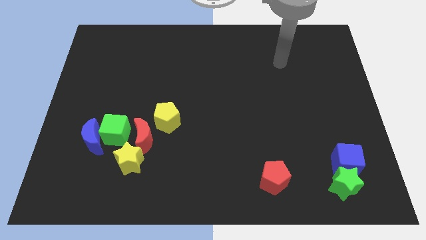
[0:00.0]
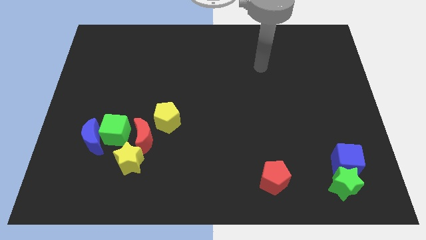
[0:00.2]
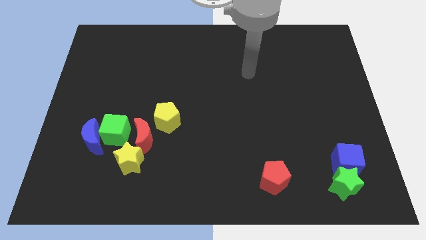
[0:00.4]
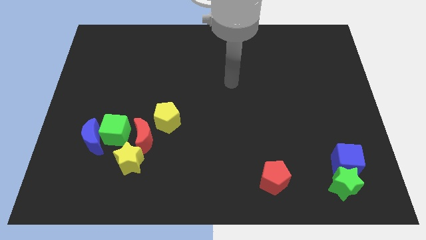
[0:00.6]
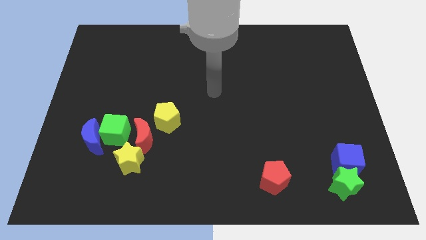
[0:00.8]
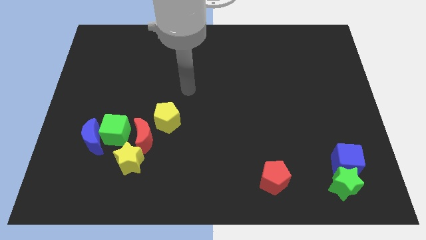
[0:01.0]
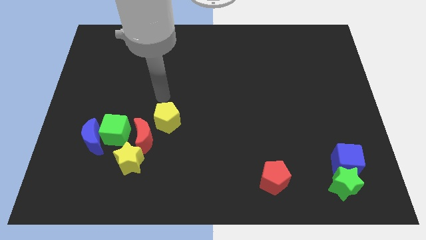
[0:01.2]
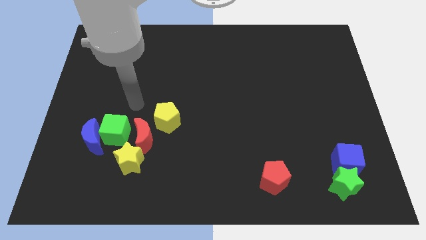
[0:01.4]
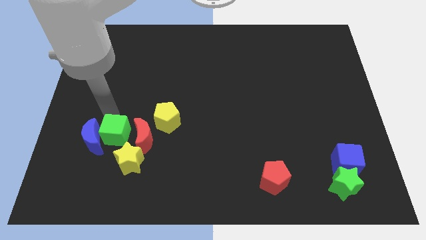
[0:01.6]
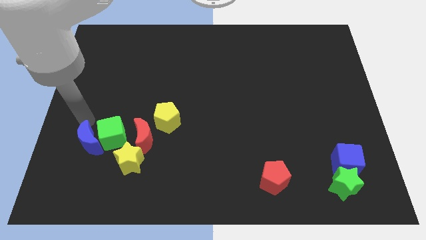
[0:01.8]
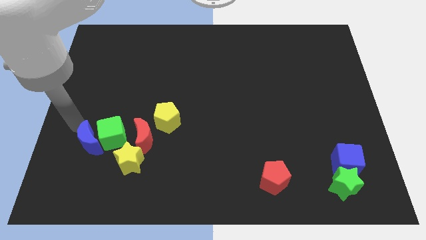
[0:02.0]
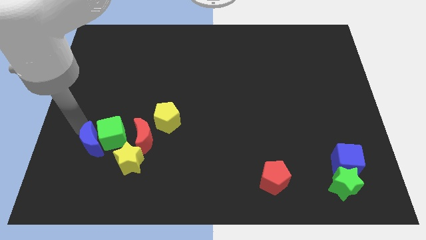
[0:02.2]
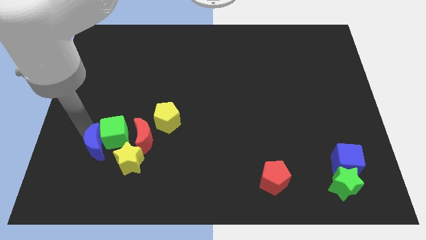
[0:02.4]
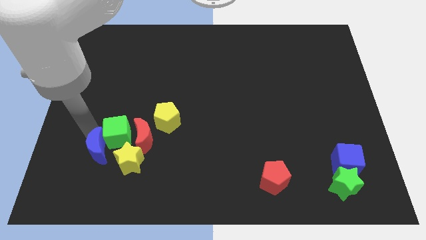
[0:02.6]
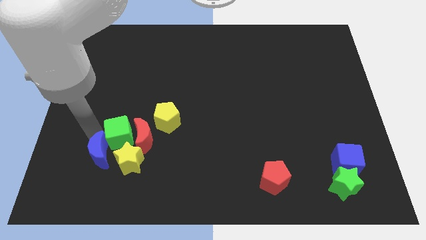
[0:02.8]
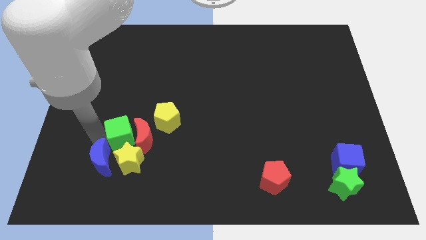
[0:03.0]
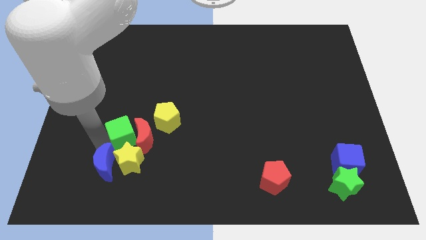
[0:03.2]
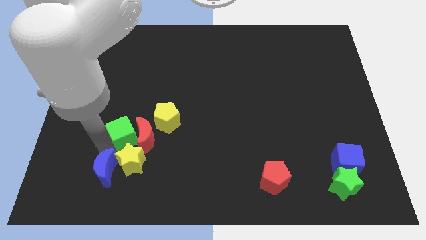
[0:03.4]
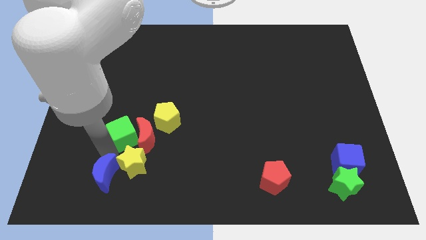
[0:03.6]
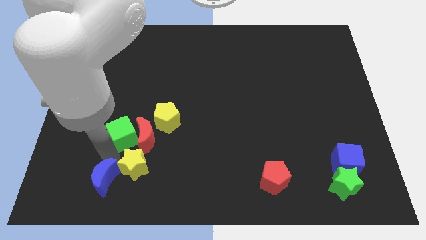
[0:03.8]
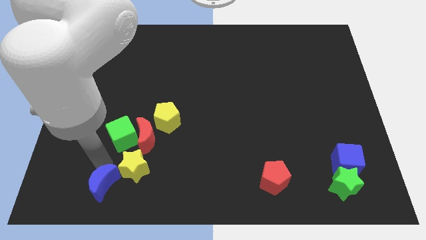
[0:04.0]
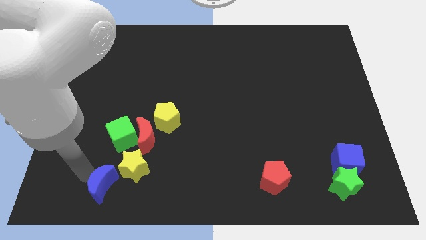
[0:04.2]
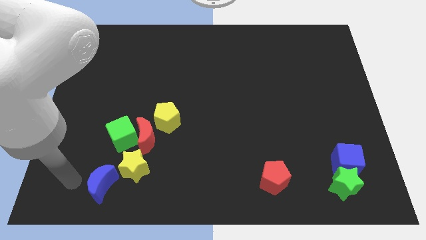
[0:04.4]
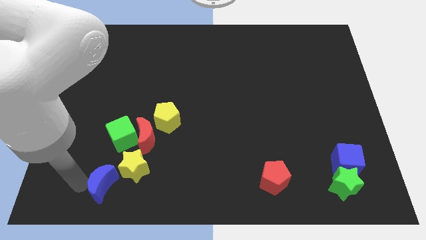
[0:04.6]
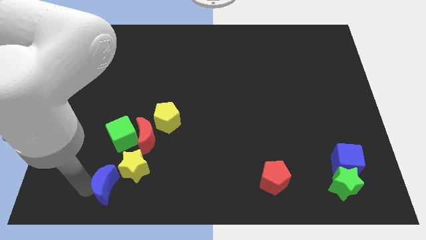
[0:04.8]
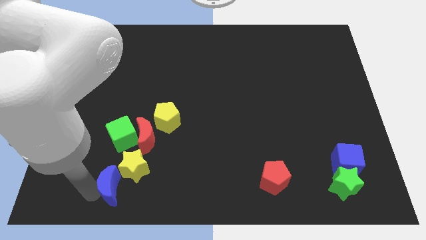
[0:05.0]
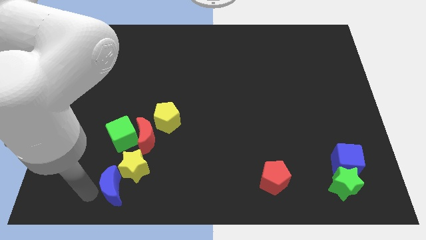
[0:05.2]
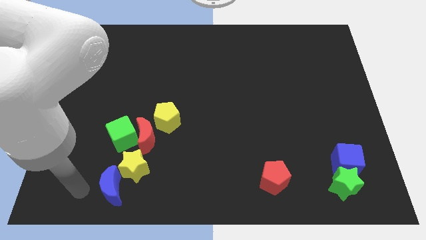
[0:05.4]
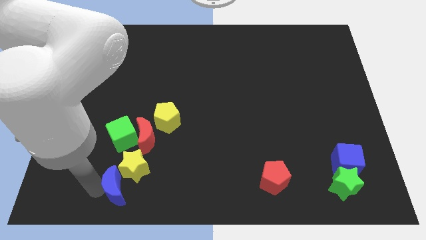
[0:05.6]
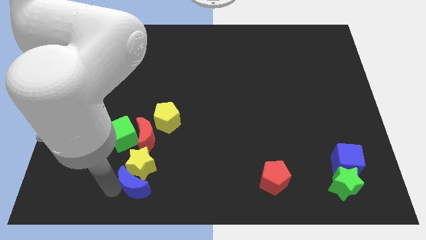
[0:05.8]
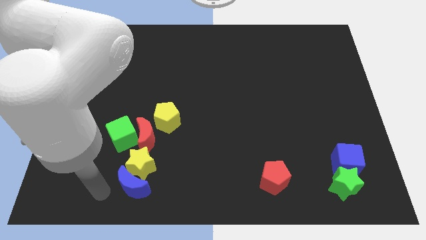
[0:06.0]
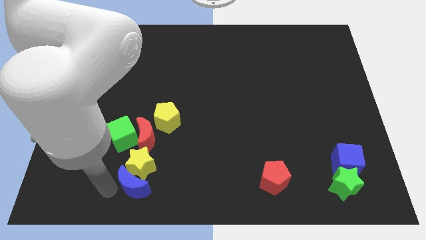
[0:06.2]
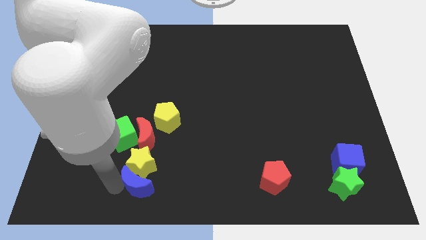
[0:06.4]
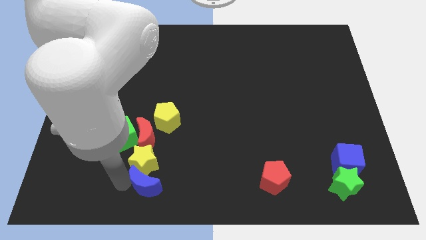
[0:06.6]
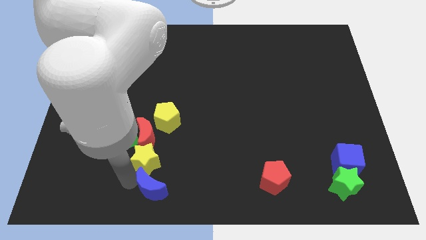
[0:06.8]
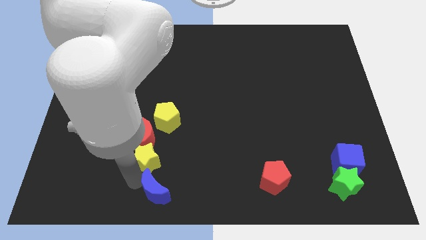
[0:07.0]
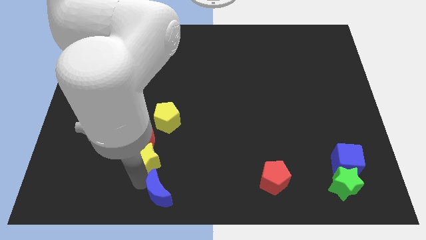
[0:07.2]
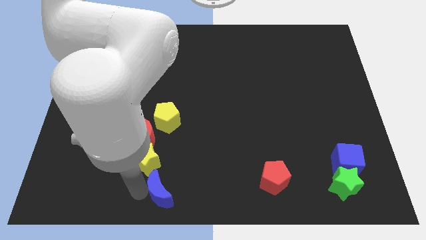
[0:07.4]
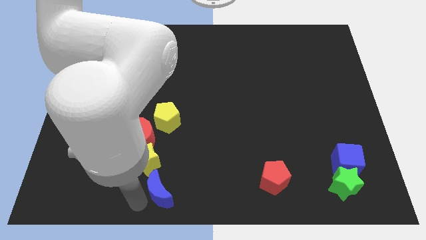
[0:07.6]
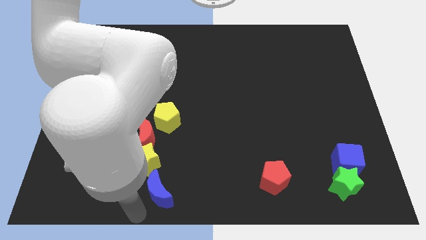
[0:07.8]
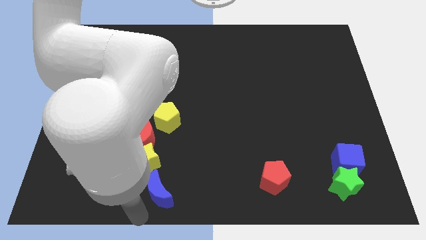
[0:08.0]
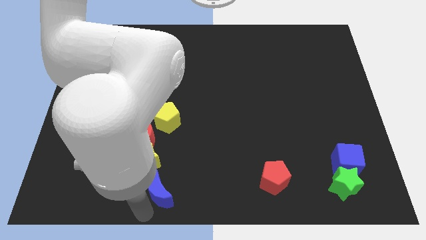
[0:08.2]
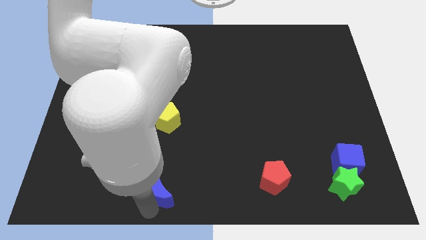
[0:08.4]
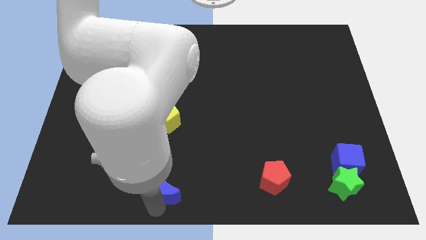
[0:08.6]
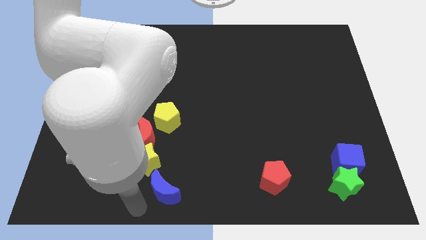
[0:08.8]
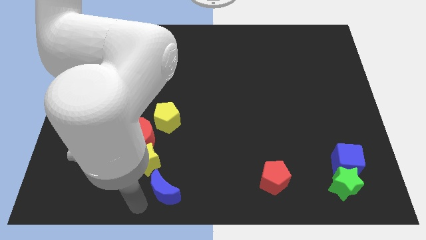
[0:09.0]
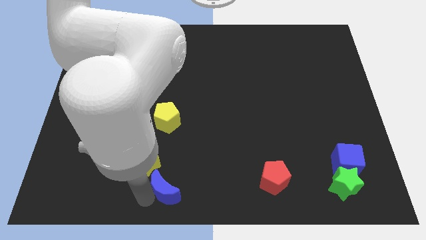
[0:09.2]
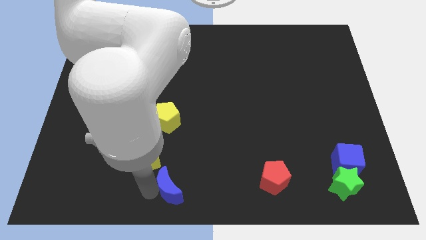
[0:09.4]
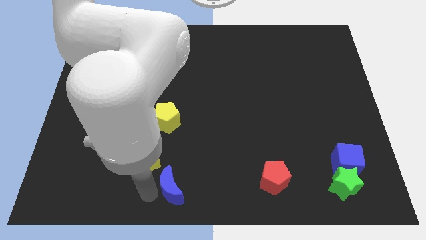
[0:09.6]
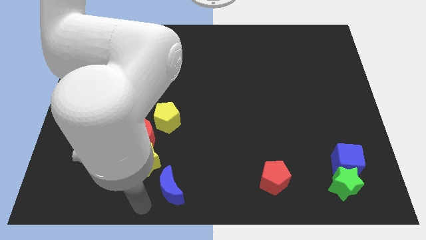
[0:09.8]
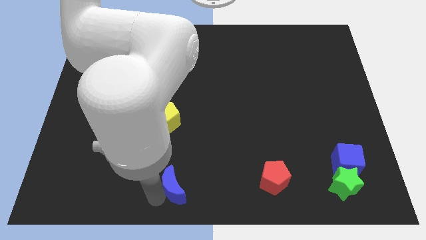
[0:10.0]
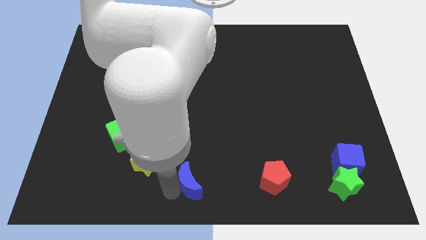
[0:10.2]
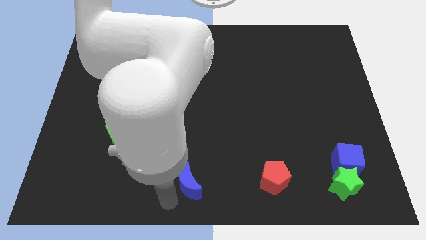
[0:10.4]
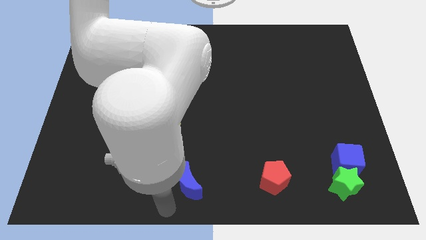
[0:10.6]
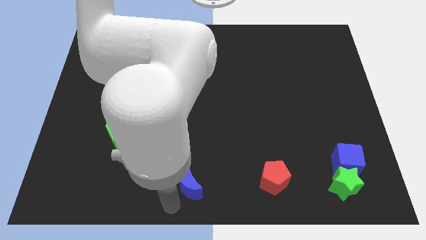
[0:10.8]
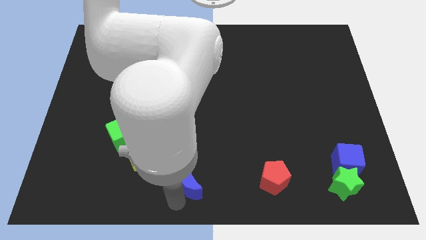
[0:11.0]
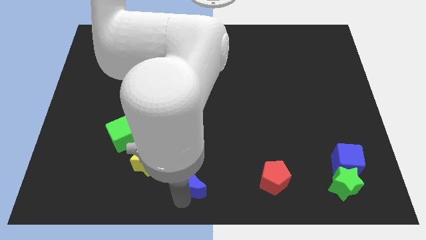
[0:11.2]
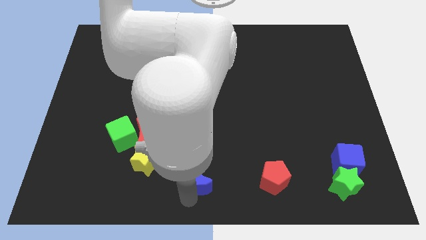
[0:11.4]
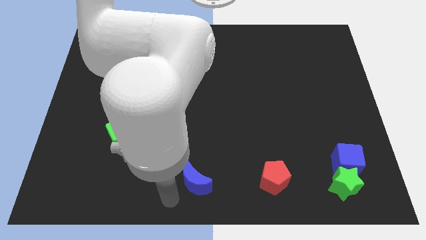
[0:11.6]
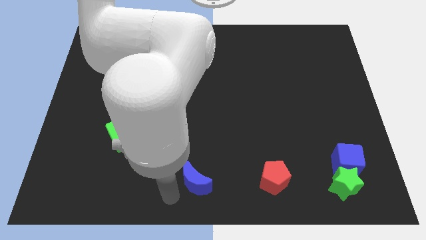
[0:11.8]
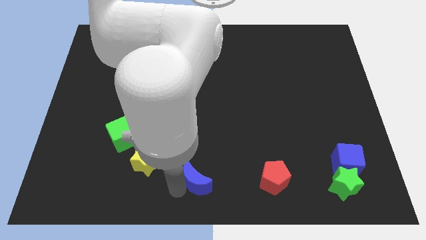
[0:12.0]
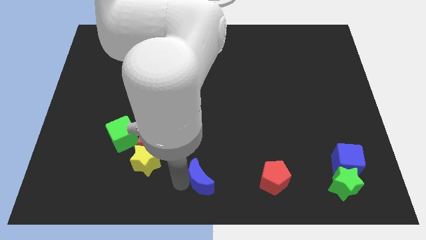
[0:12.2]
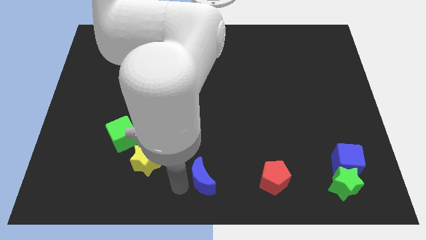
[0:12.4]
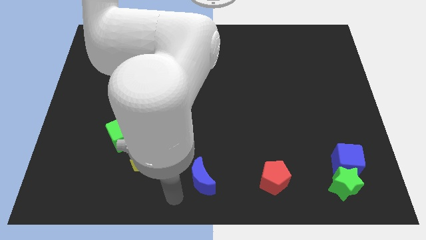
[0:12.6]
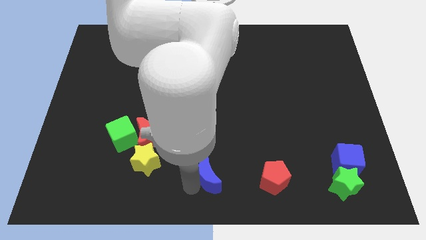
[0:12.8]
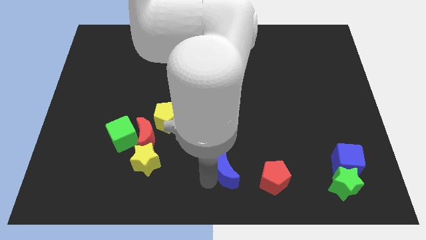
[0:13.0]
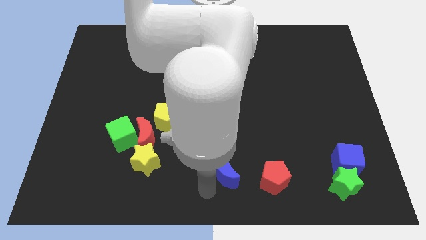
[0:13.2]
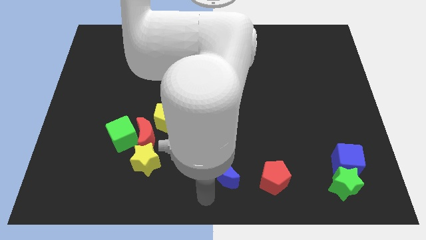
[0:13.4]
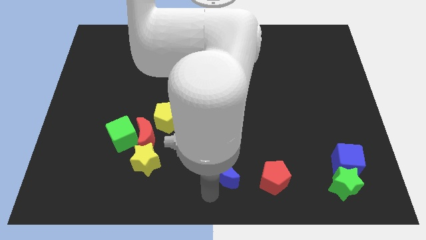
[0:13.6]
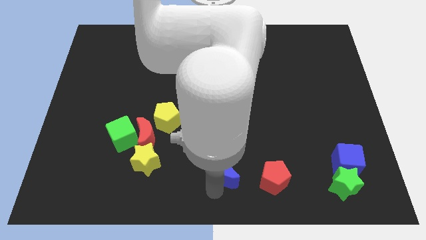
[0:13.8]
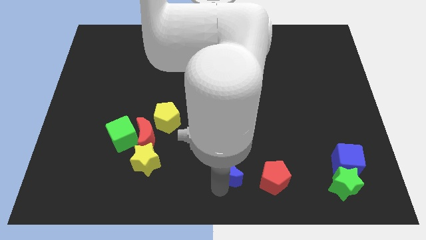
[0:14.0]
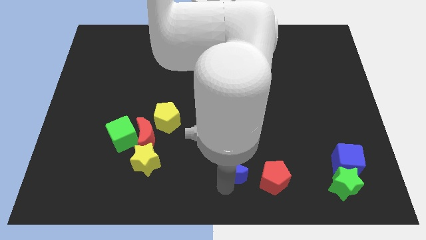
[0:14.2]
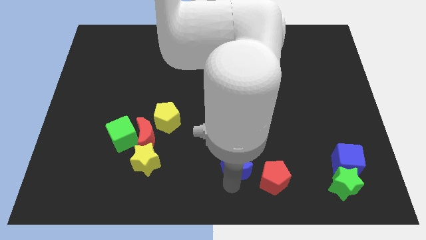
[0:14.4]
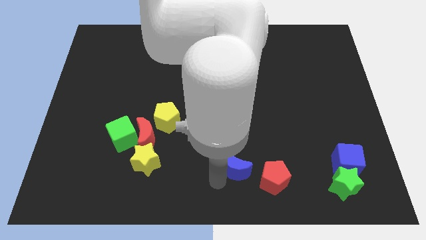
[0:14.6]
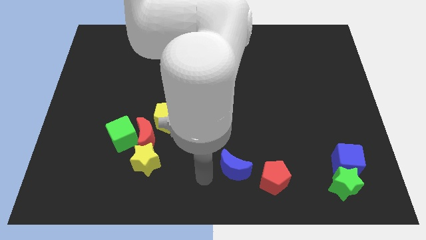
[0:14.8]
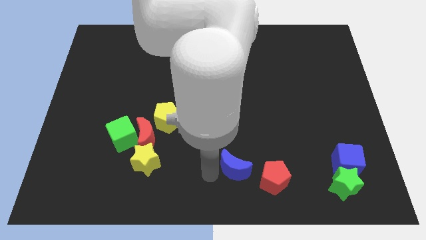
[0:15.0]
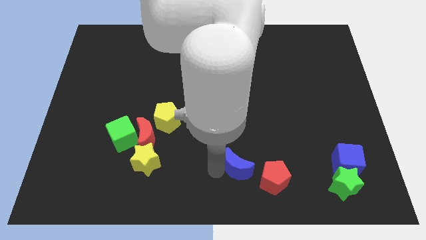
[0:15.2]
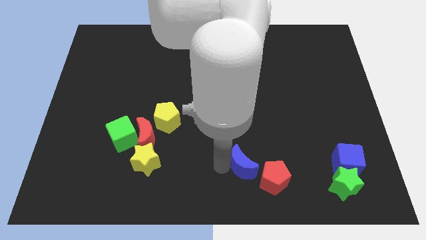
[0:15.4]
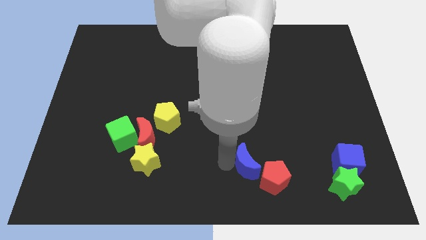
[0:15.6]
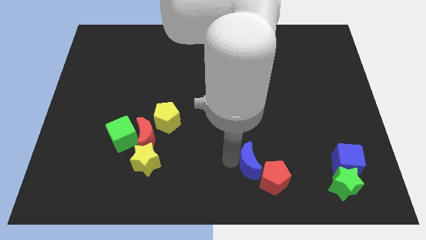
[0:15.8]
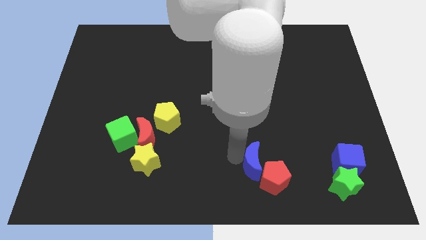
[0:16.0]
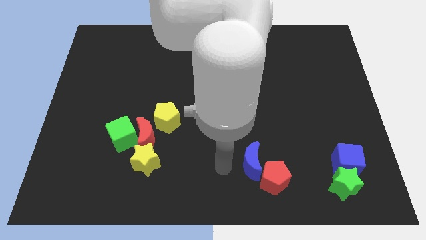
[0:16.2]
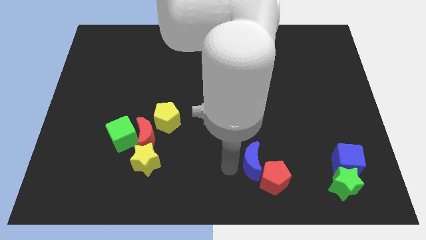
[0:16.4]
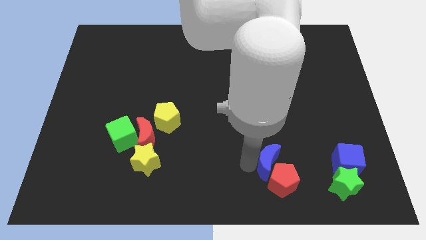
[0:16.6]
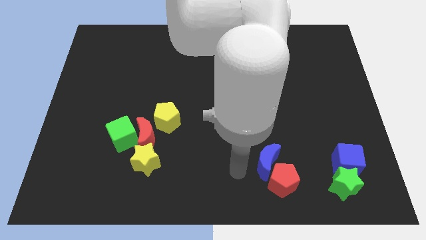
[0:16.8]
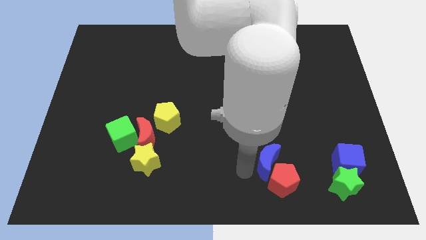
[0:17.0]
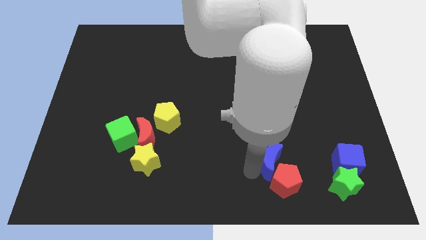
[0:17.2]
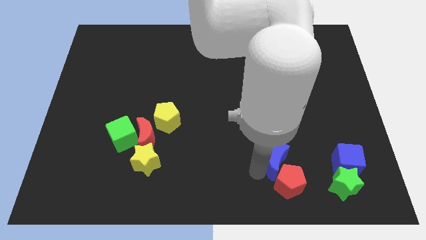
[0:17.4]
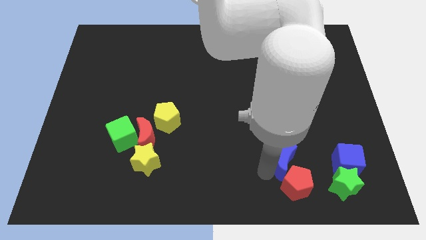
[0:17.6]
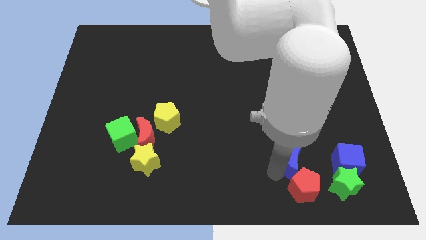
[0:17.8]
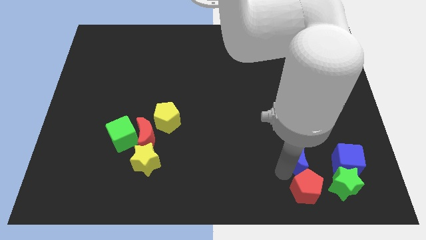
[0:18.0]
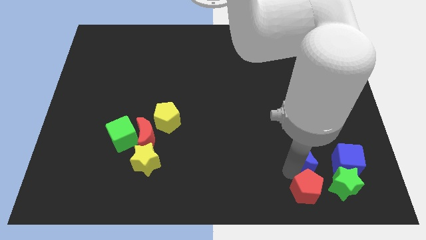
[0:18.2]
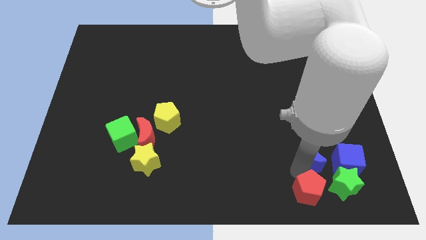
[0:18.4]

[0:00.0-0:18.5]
slide the blue moon diagonally up and to the left of the blue cube
